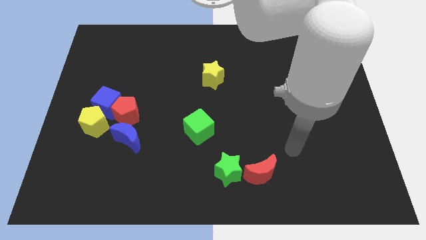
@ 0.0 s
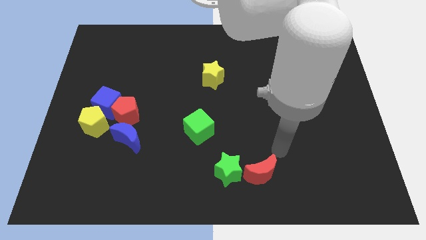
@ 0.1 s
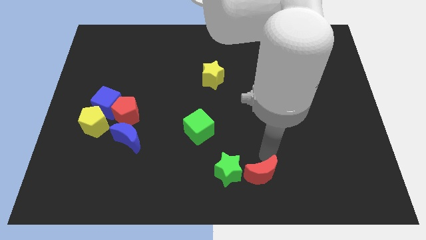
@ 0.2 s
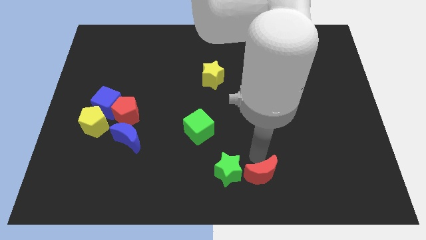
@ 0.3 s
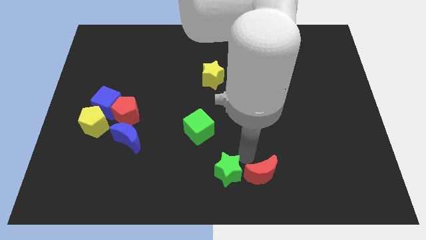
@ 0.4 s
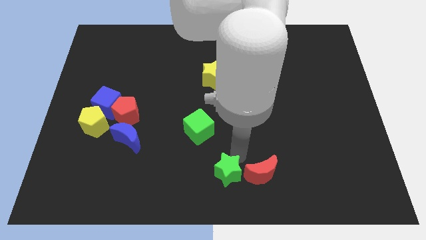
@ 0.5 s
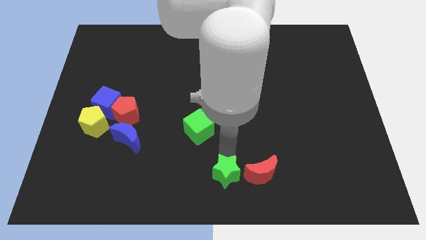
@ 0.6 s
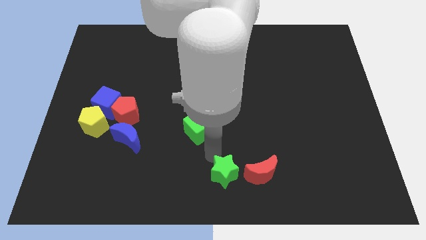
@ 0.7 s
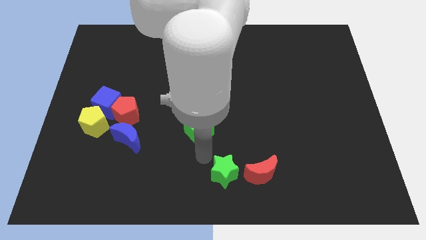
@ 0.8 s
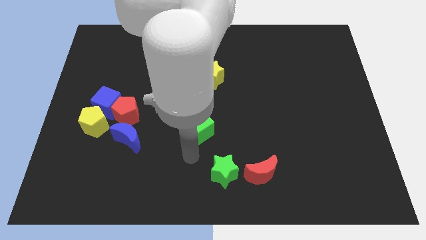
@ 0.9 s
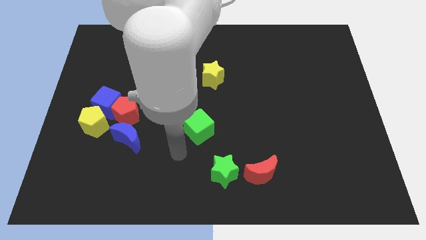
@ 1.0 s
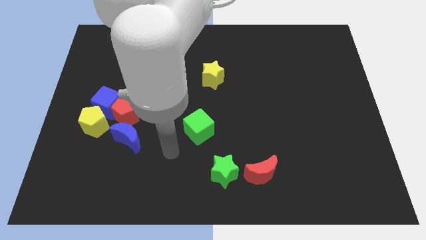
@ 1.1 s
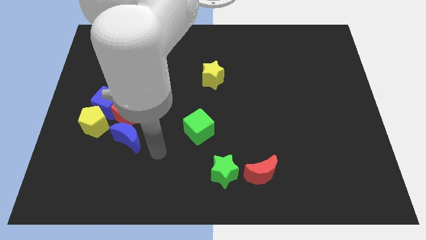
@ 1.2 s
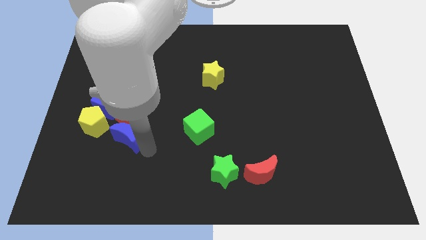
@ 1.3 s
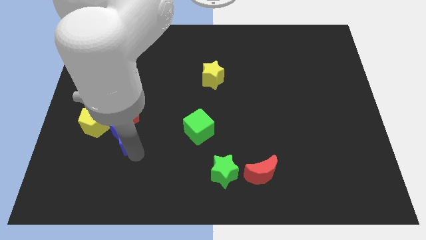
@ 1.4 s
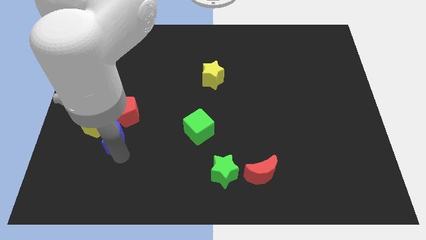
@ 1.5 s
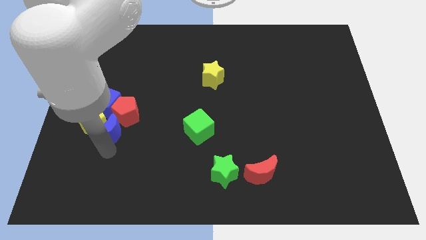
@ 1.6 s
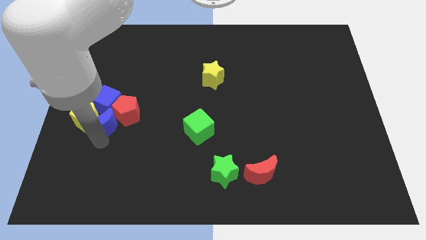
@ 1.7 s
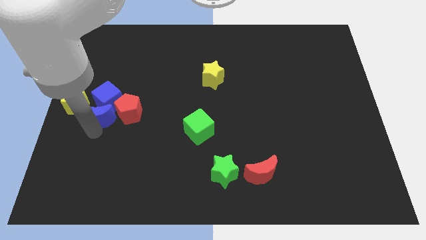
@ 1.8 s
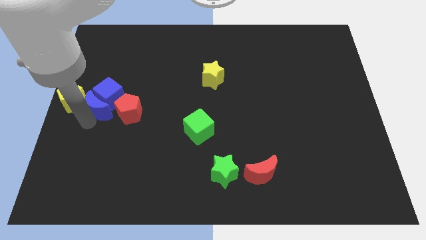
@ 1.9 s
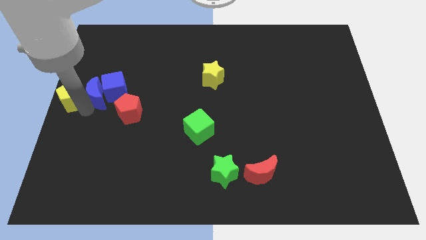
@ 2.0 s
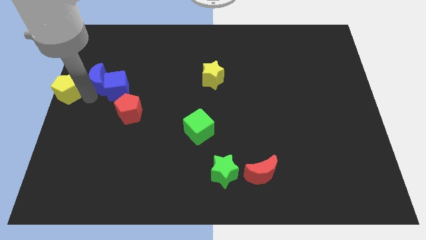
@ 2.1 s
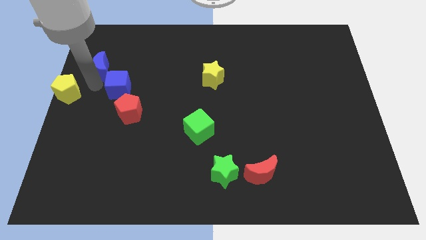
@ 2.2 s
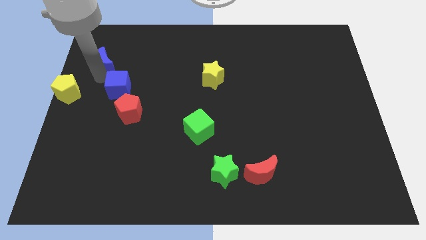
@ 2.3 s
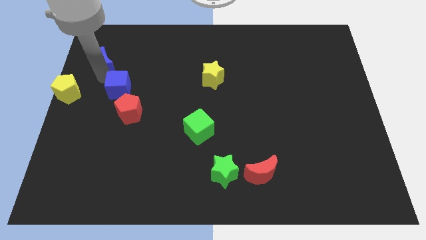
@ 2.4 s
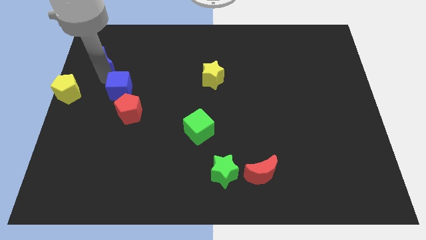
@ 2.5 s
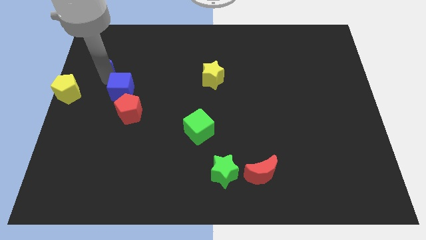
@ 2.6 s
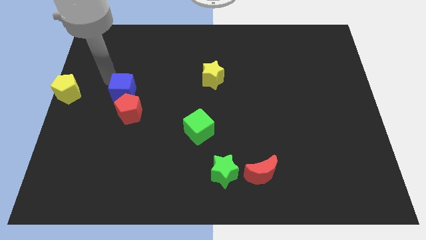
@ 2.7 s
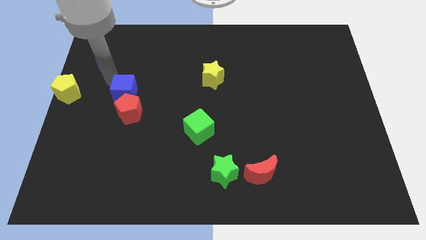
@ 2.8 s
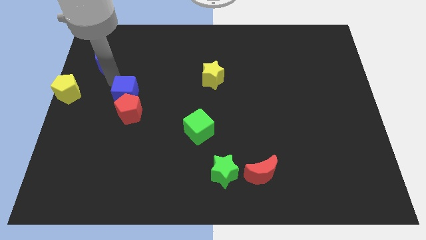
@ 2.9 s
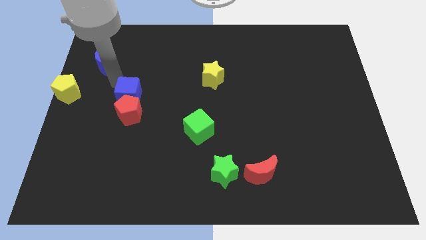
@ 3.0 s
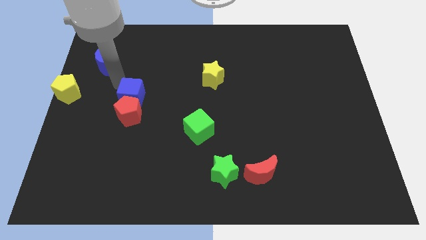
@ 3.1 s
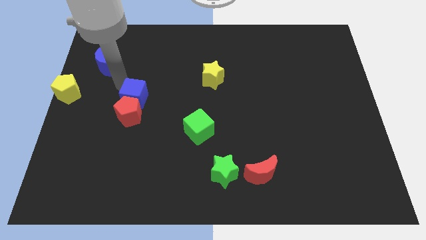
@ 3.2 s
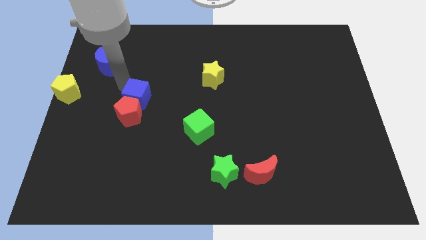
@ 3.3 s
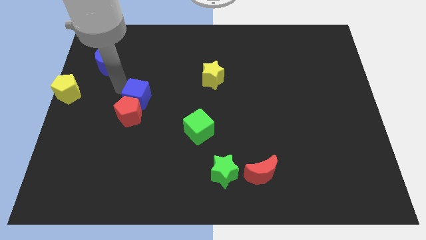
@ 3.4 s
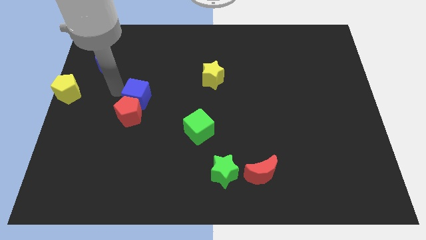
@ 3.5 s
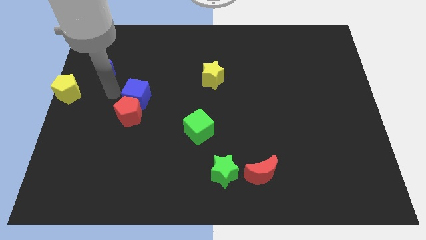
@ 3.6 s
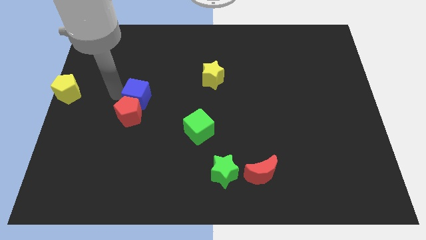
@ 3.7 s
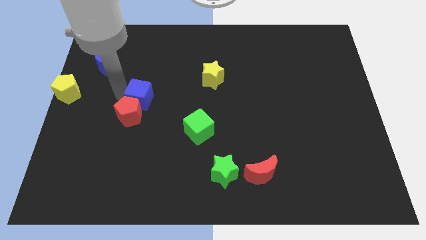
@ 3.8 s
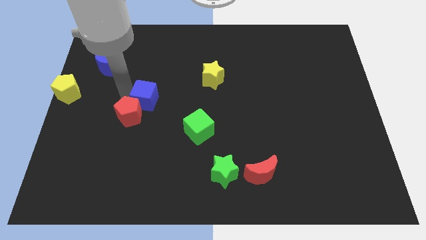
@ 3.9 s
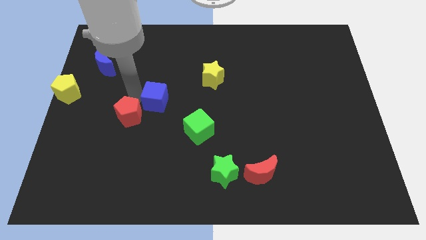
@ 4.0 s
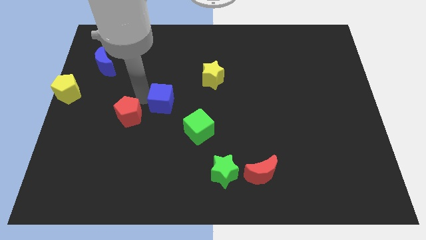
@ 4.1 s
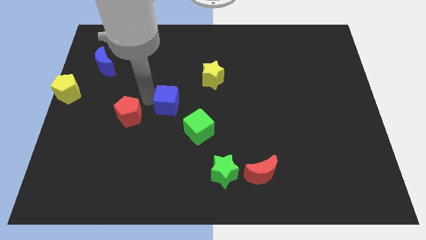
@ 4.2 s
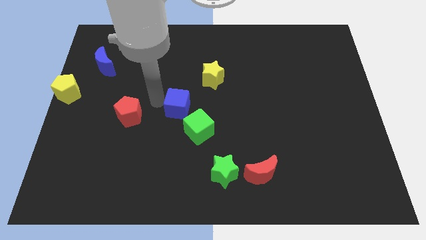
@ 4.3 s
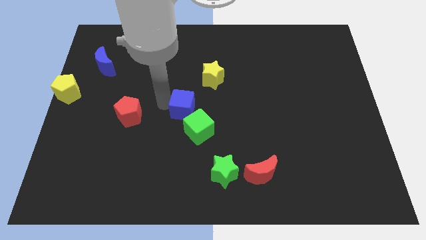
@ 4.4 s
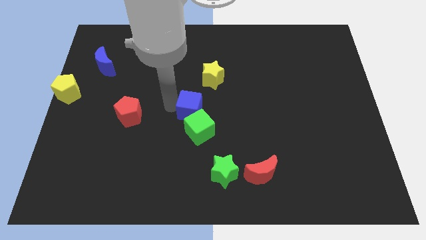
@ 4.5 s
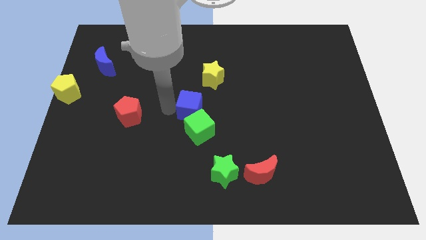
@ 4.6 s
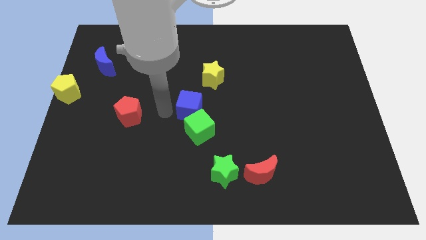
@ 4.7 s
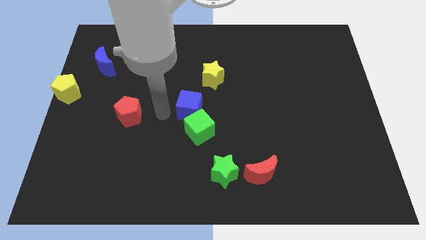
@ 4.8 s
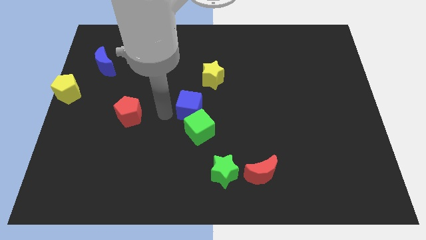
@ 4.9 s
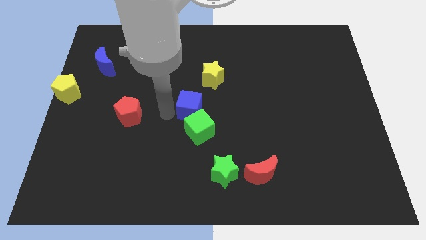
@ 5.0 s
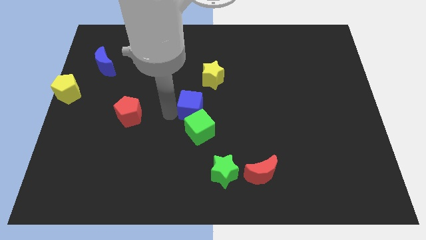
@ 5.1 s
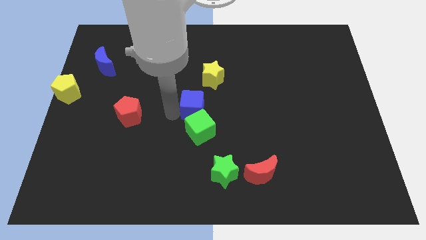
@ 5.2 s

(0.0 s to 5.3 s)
slide the blue cube to the right

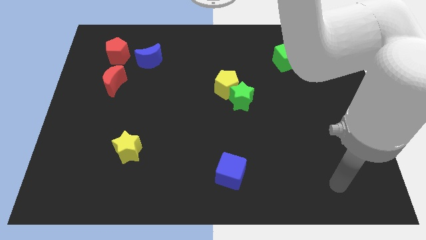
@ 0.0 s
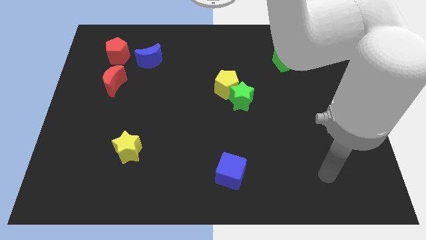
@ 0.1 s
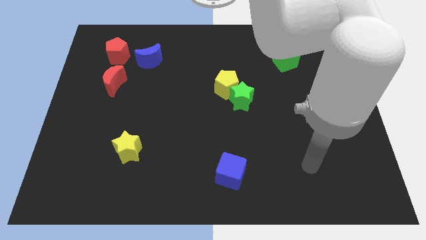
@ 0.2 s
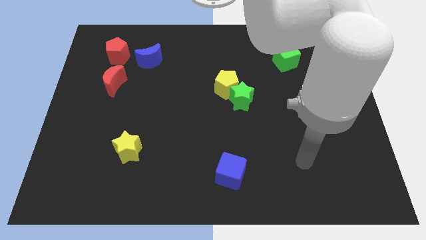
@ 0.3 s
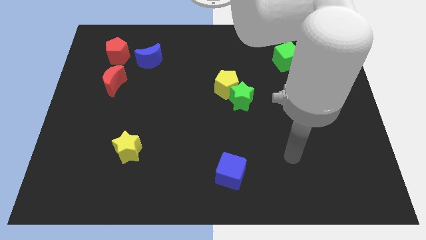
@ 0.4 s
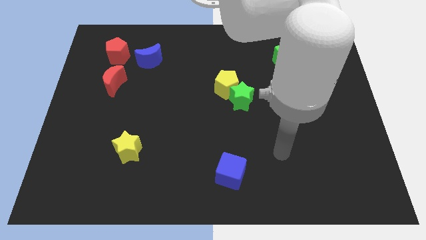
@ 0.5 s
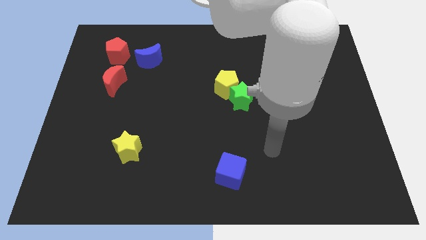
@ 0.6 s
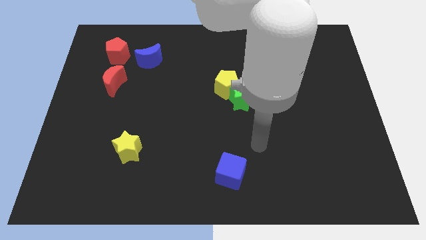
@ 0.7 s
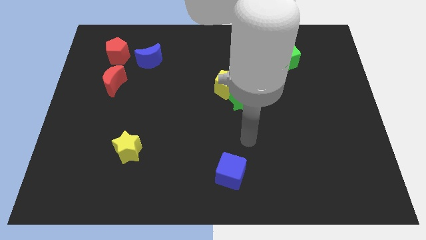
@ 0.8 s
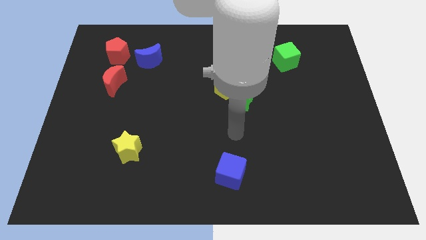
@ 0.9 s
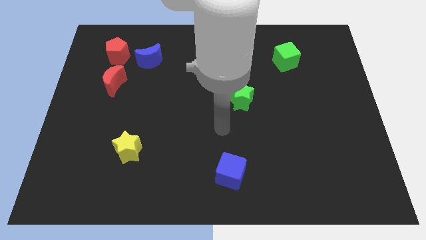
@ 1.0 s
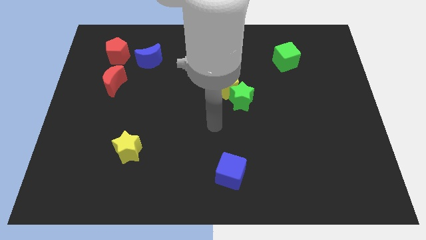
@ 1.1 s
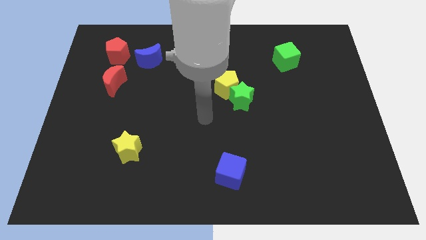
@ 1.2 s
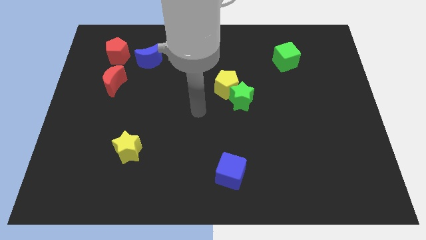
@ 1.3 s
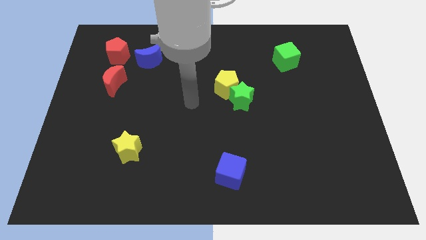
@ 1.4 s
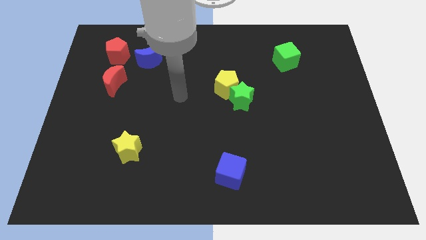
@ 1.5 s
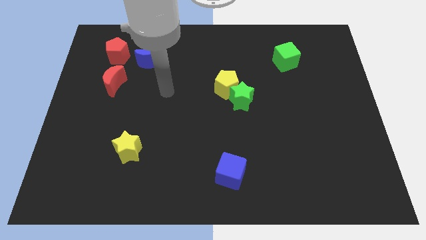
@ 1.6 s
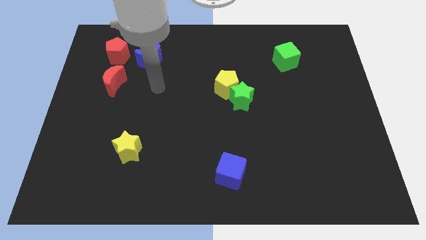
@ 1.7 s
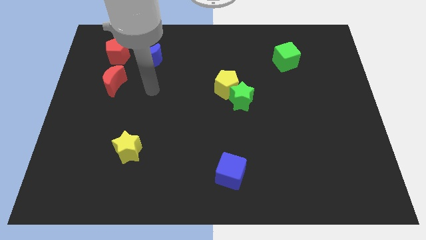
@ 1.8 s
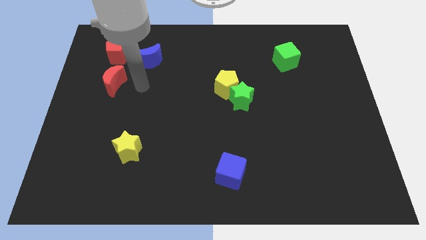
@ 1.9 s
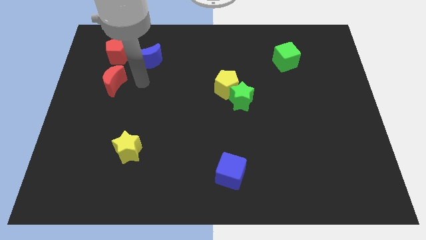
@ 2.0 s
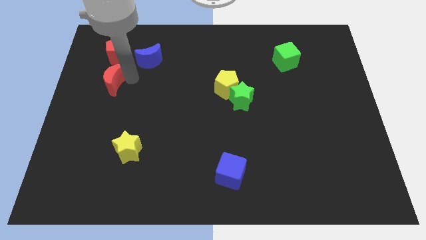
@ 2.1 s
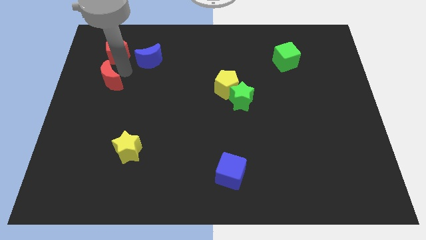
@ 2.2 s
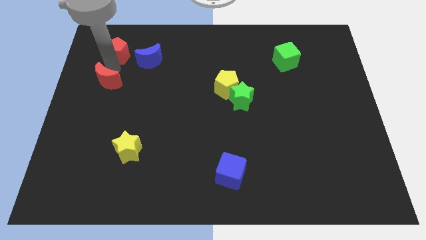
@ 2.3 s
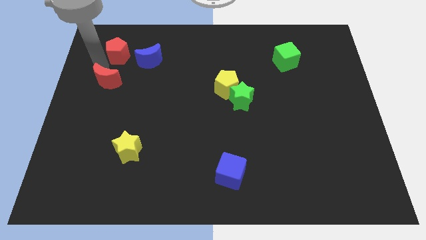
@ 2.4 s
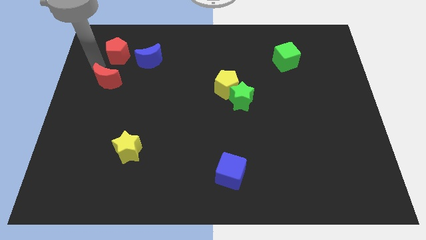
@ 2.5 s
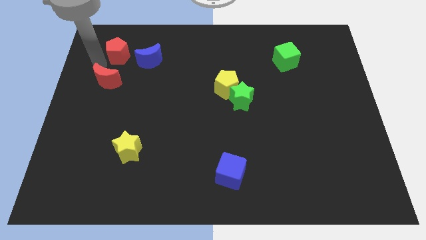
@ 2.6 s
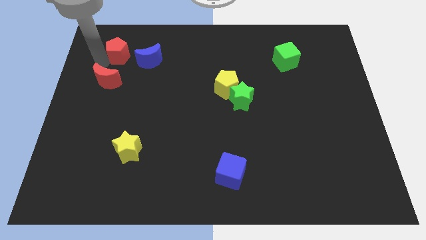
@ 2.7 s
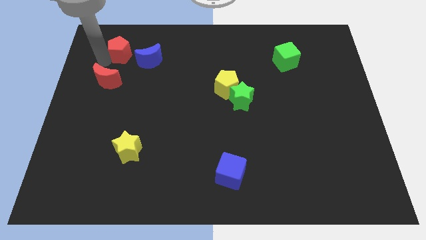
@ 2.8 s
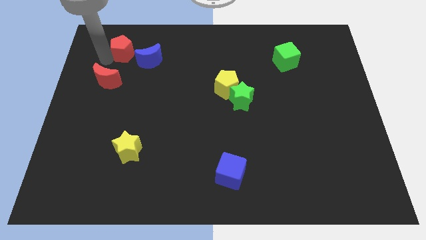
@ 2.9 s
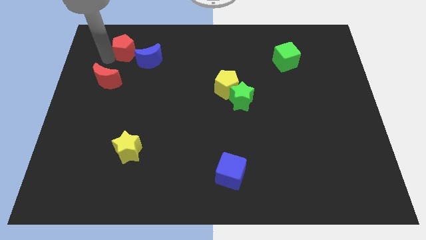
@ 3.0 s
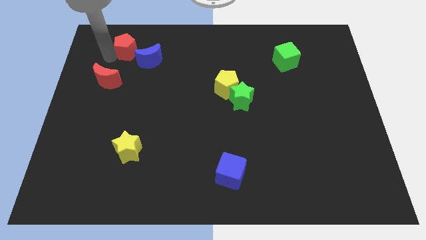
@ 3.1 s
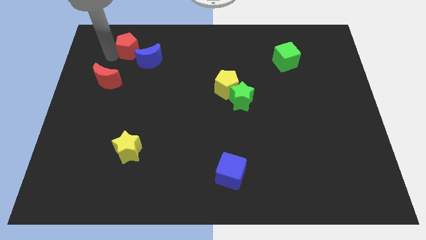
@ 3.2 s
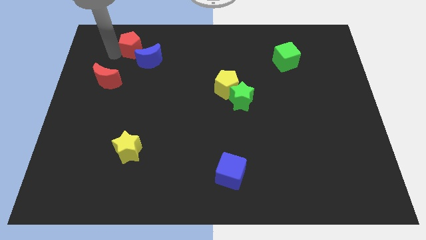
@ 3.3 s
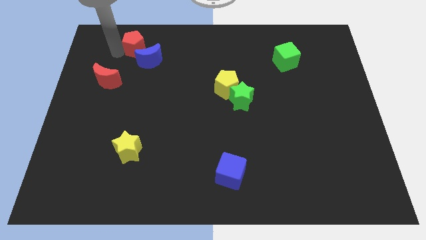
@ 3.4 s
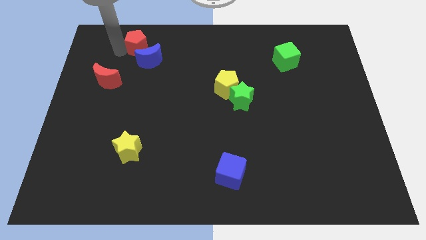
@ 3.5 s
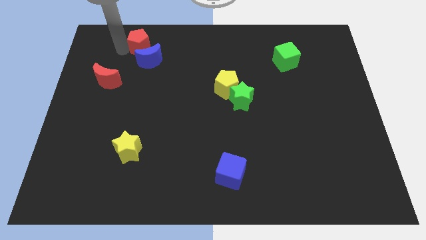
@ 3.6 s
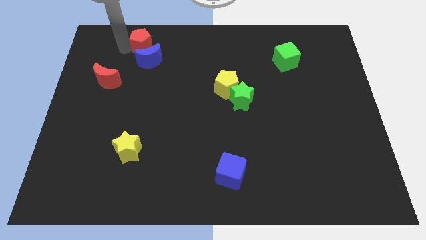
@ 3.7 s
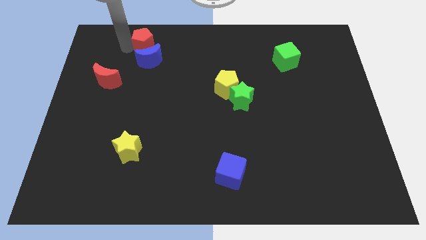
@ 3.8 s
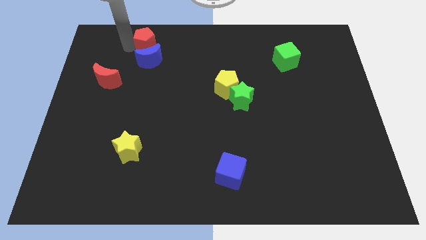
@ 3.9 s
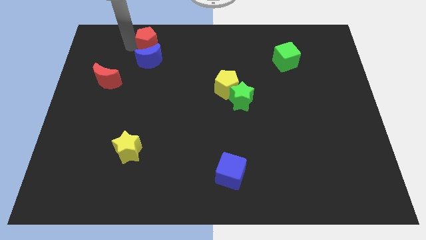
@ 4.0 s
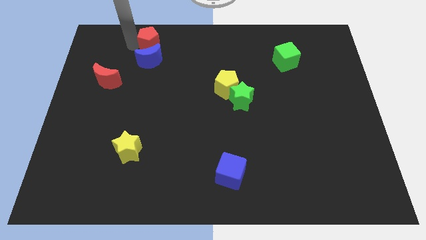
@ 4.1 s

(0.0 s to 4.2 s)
slightly move the red pentagon right
